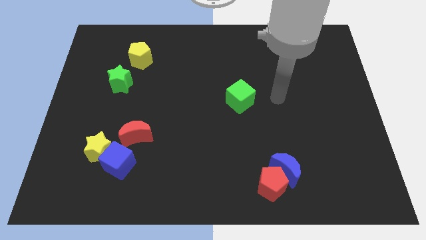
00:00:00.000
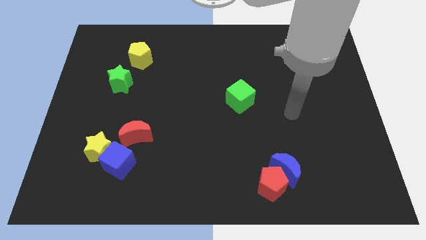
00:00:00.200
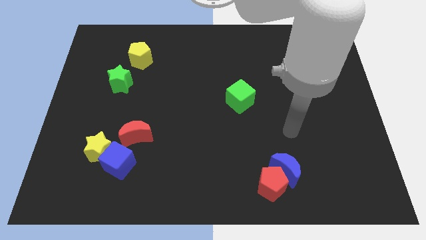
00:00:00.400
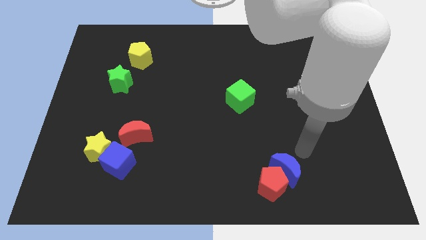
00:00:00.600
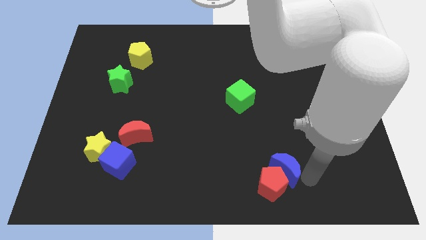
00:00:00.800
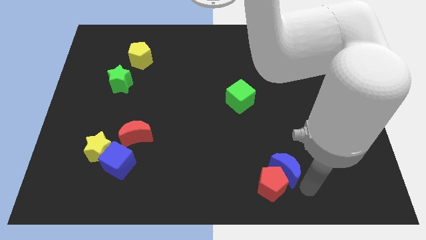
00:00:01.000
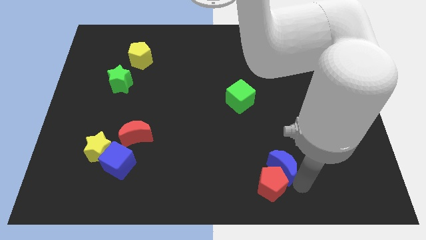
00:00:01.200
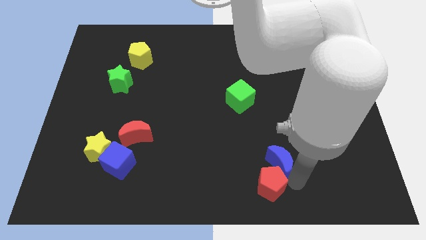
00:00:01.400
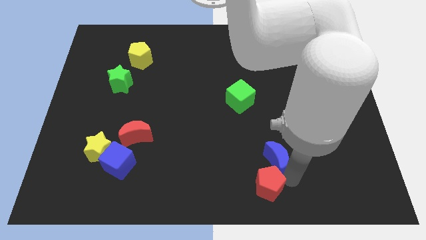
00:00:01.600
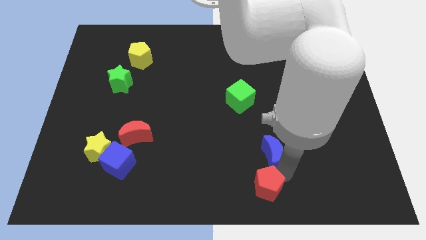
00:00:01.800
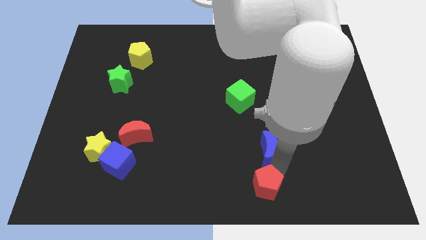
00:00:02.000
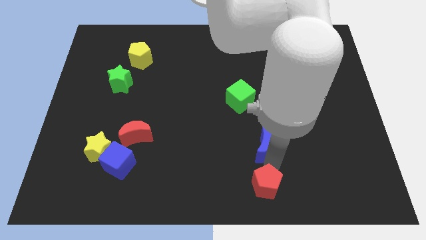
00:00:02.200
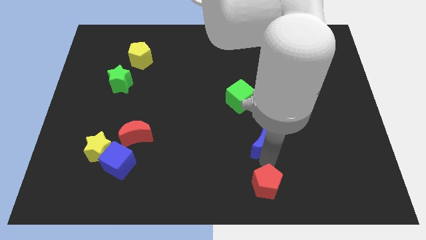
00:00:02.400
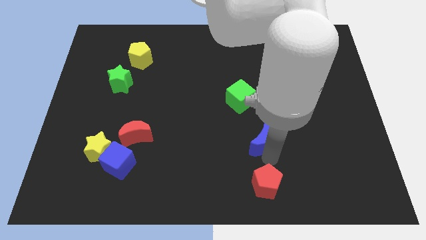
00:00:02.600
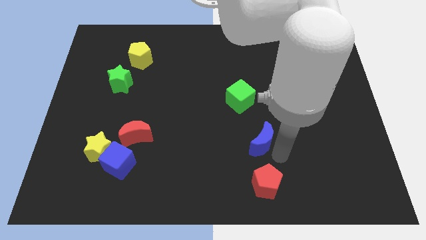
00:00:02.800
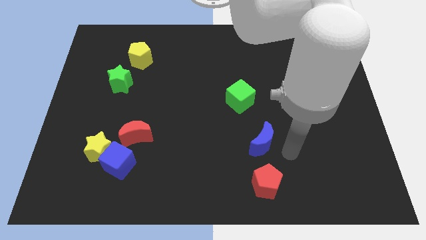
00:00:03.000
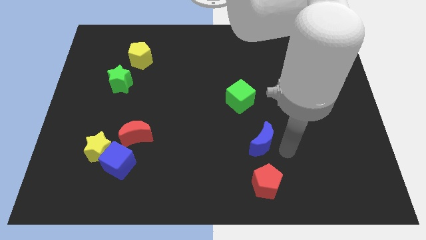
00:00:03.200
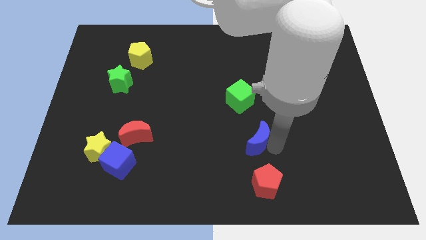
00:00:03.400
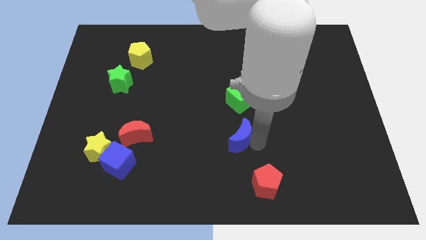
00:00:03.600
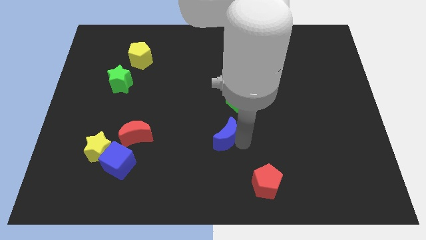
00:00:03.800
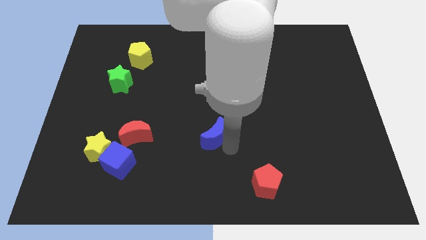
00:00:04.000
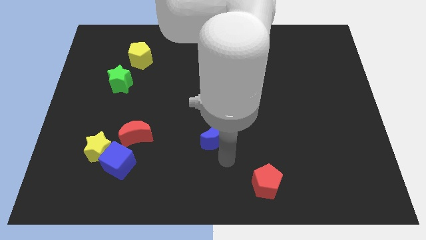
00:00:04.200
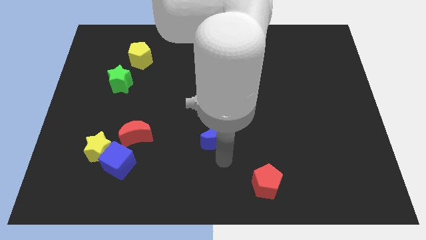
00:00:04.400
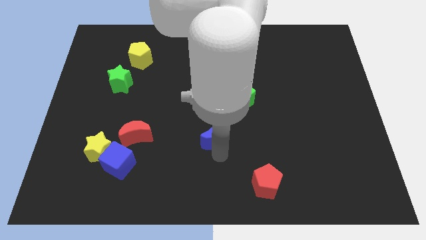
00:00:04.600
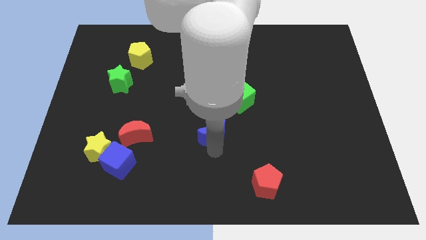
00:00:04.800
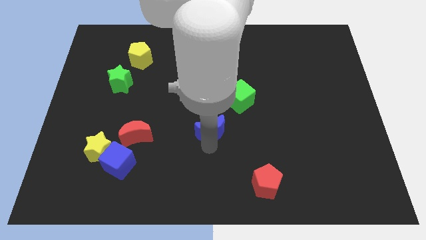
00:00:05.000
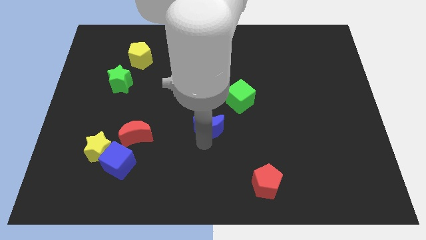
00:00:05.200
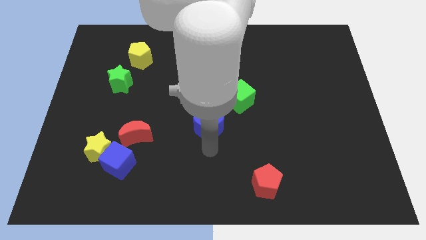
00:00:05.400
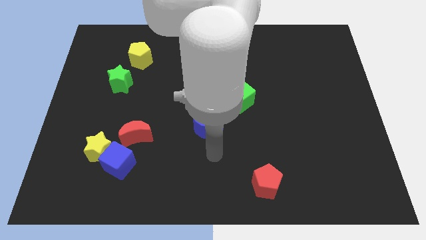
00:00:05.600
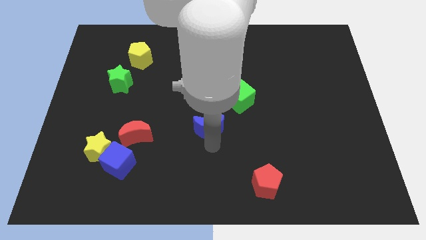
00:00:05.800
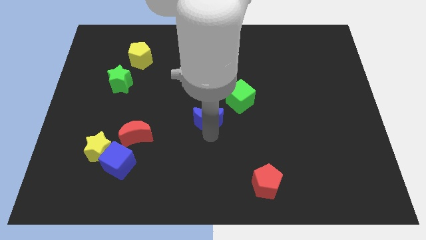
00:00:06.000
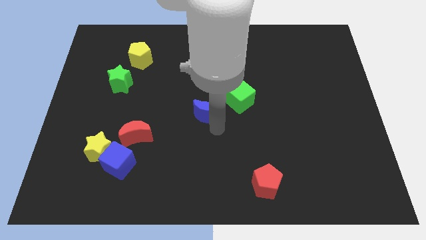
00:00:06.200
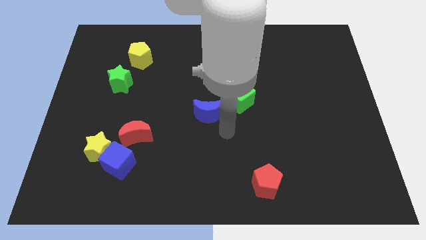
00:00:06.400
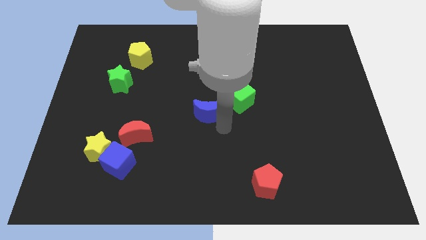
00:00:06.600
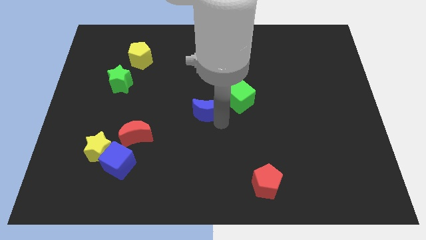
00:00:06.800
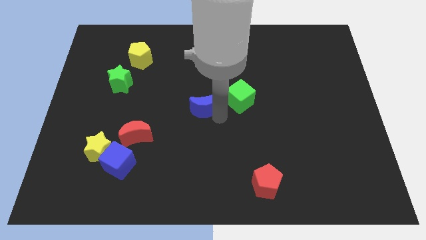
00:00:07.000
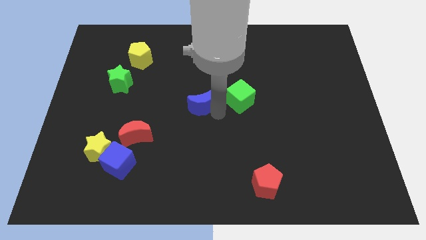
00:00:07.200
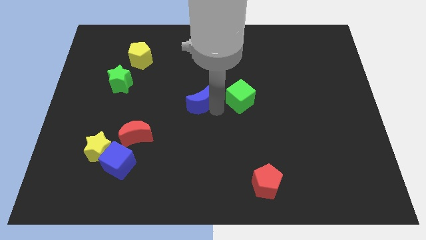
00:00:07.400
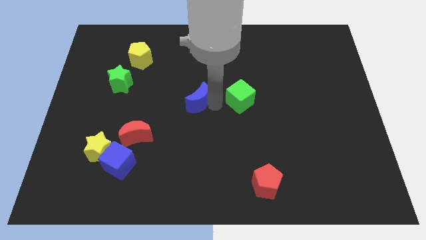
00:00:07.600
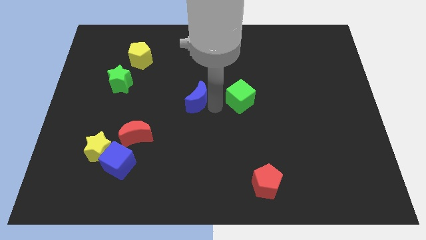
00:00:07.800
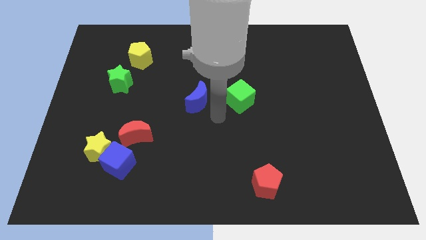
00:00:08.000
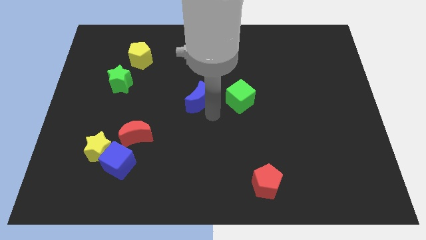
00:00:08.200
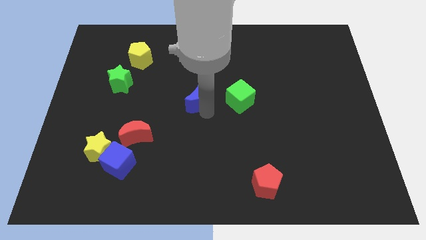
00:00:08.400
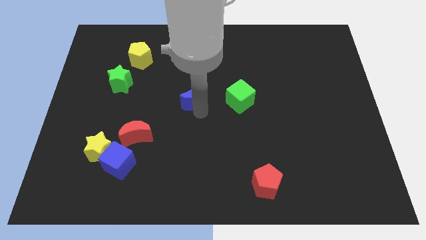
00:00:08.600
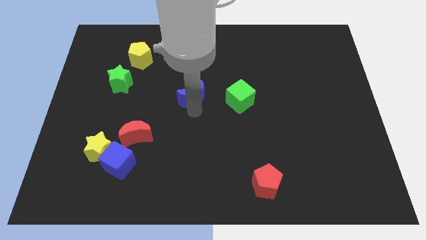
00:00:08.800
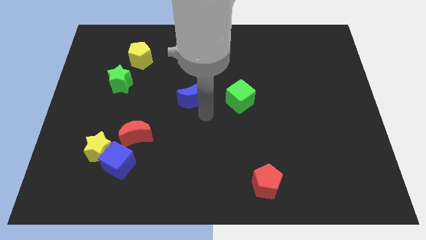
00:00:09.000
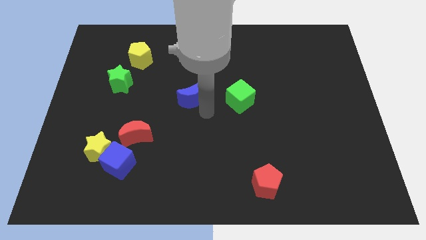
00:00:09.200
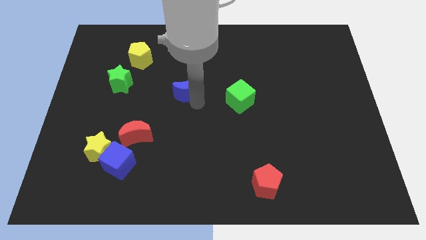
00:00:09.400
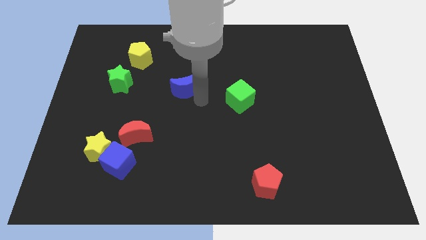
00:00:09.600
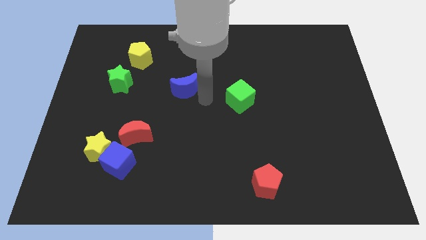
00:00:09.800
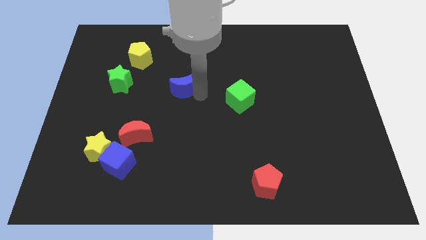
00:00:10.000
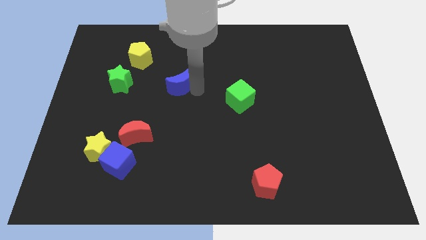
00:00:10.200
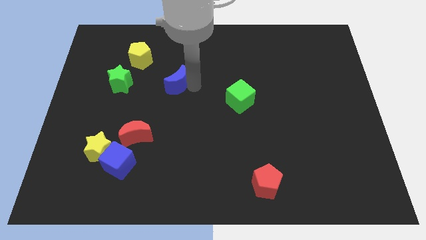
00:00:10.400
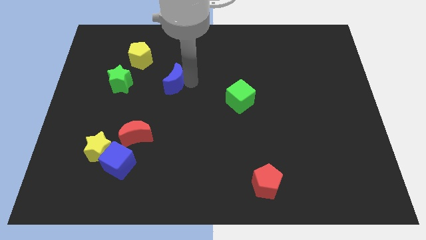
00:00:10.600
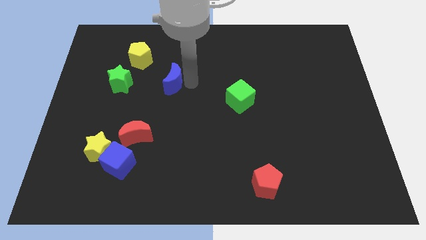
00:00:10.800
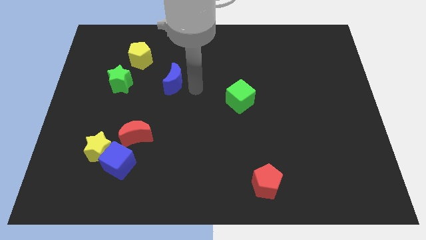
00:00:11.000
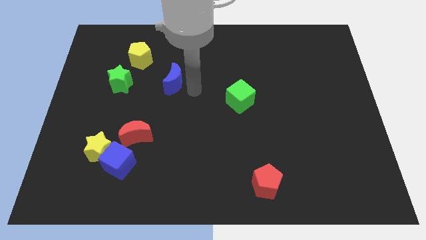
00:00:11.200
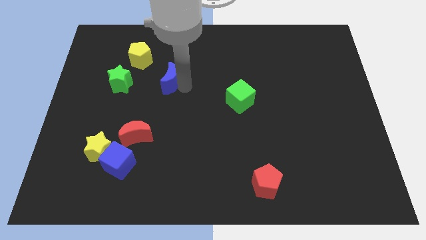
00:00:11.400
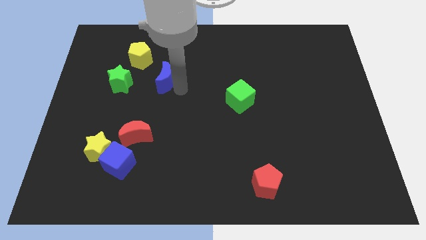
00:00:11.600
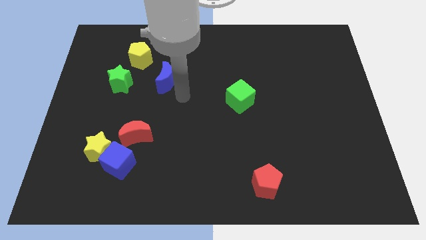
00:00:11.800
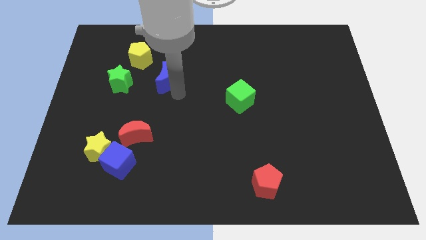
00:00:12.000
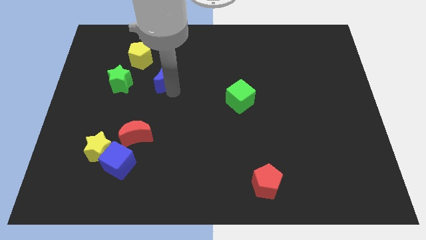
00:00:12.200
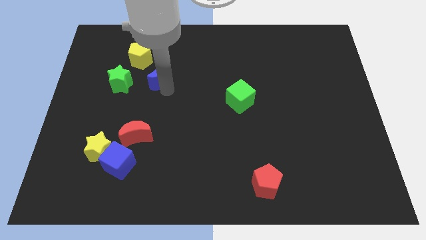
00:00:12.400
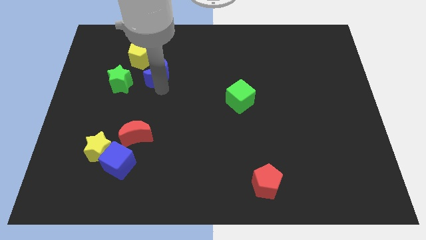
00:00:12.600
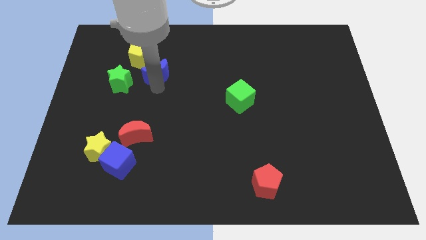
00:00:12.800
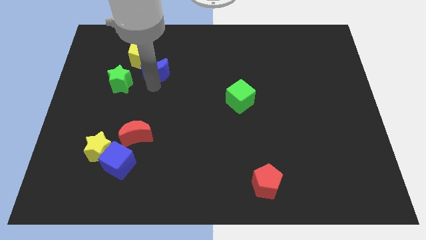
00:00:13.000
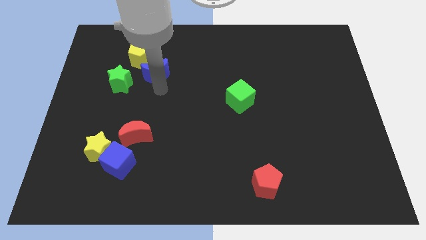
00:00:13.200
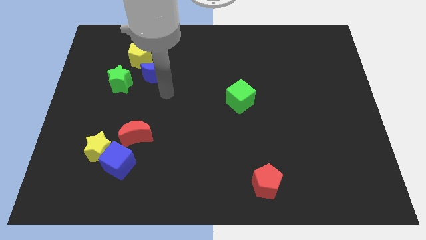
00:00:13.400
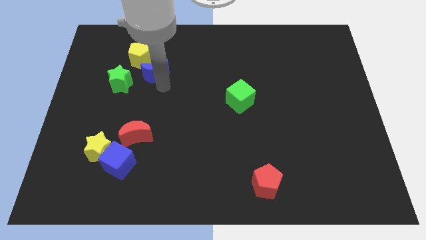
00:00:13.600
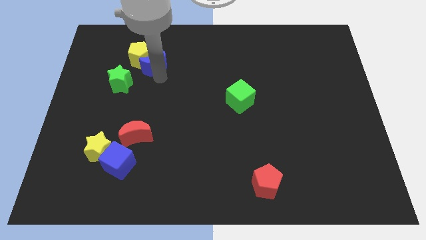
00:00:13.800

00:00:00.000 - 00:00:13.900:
move the blue moon next to the yellow pentagon
